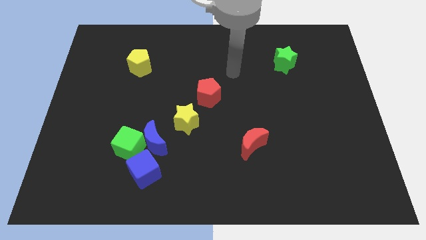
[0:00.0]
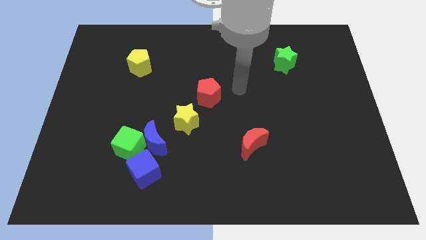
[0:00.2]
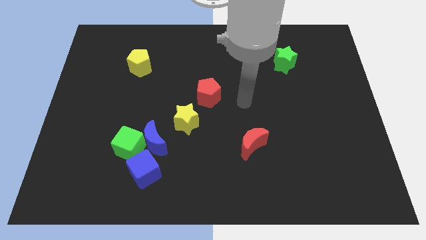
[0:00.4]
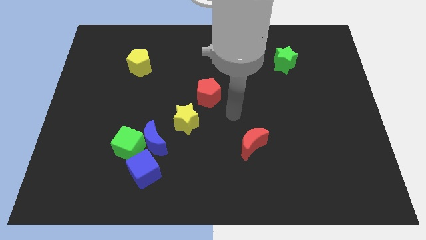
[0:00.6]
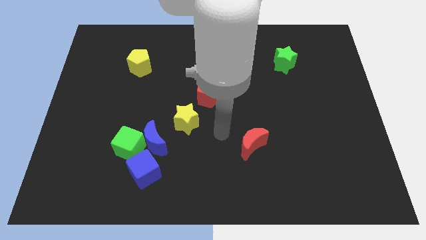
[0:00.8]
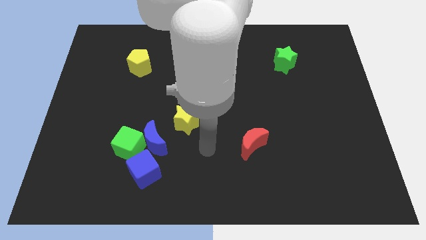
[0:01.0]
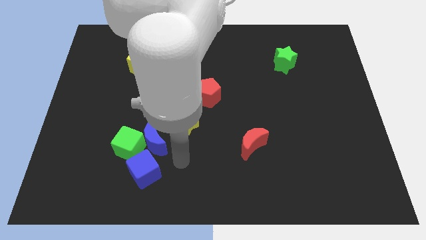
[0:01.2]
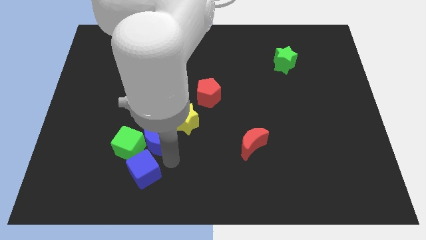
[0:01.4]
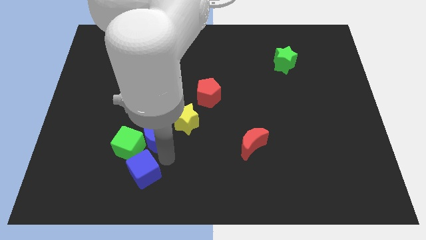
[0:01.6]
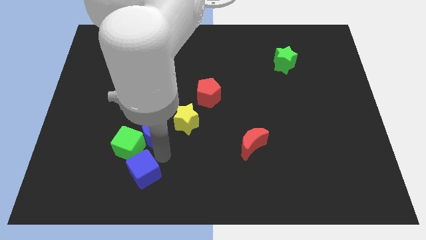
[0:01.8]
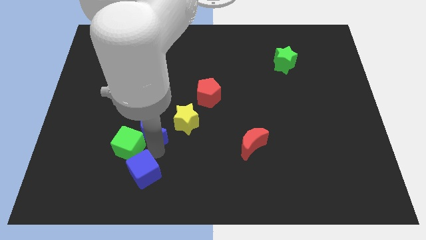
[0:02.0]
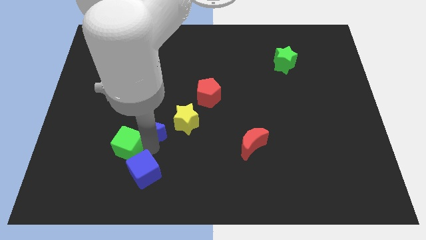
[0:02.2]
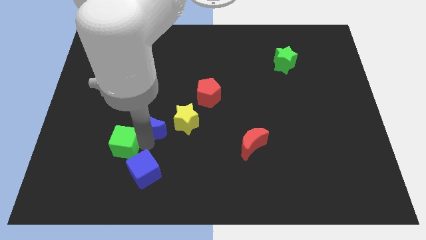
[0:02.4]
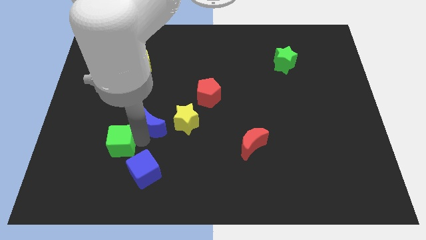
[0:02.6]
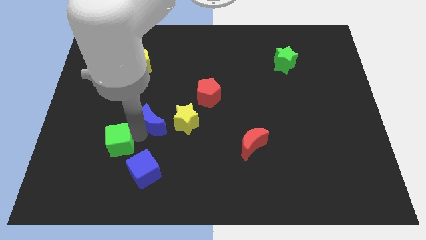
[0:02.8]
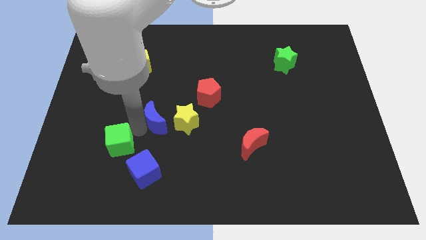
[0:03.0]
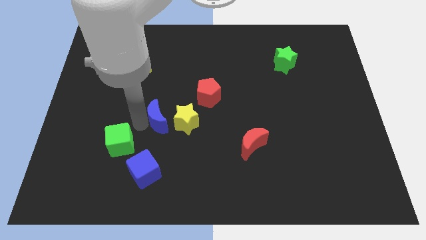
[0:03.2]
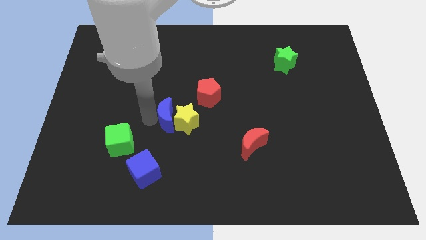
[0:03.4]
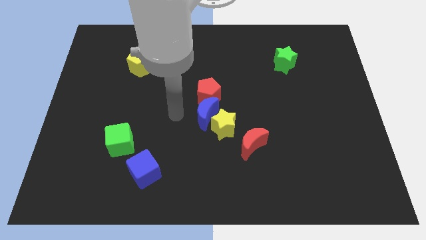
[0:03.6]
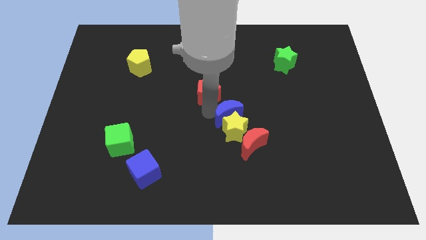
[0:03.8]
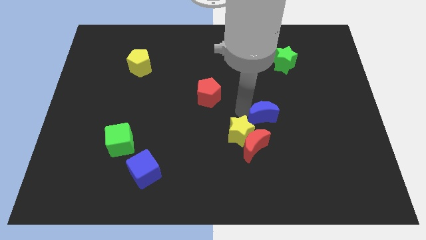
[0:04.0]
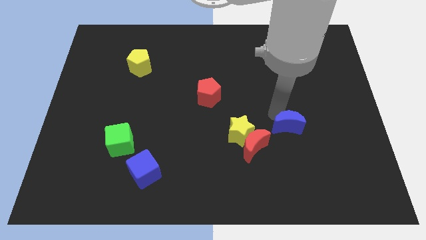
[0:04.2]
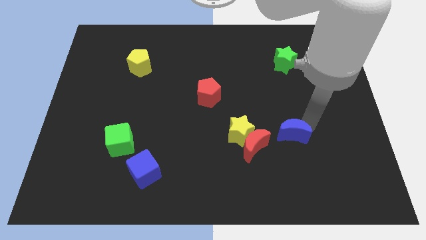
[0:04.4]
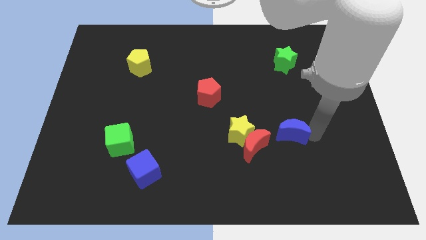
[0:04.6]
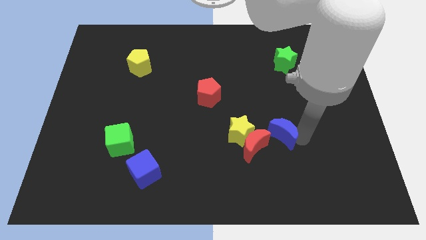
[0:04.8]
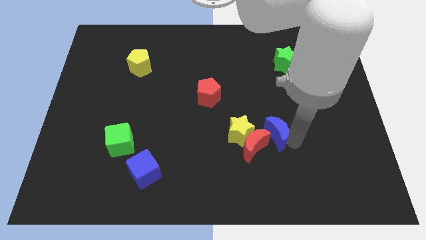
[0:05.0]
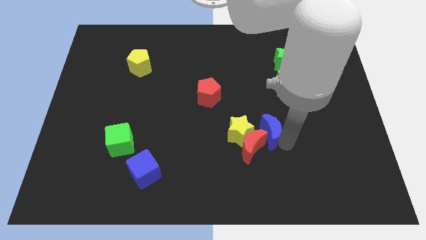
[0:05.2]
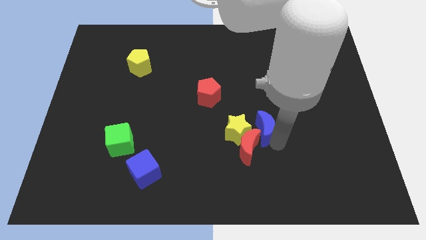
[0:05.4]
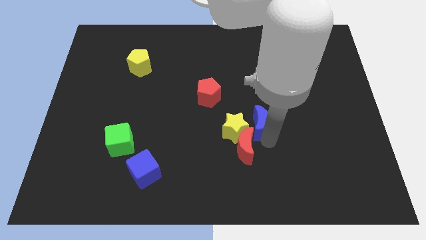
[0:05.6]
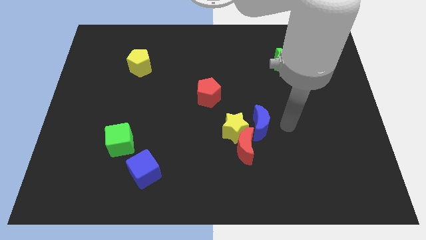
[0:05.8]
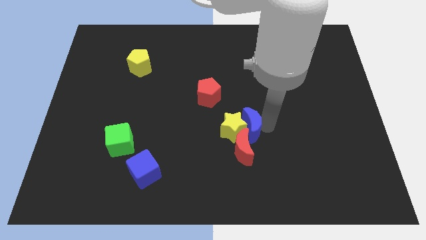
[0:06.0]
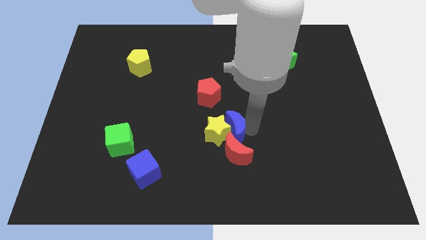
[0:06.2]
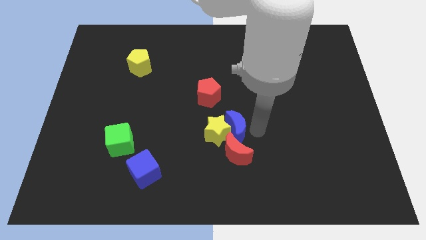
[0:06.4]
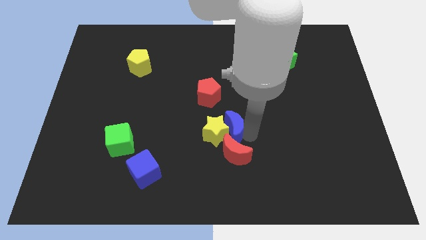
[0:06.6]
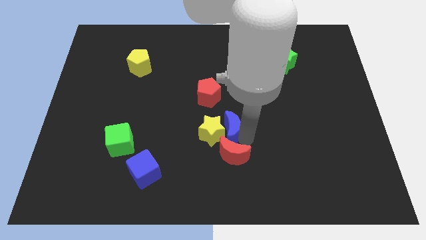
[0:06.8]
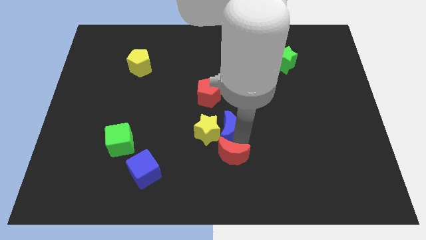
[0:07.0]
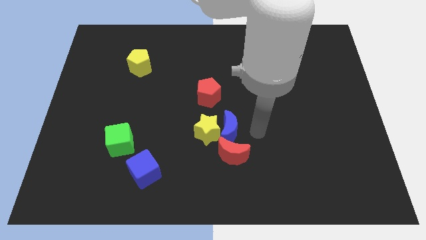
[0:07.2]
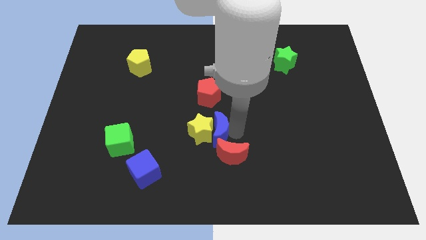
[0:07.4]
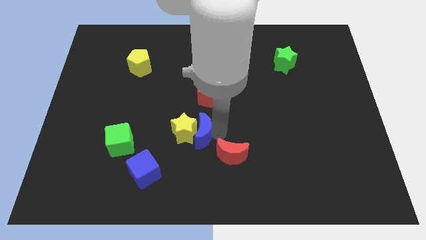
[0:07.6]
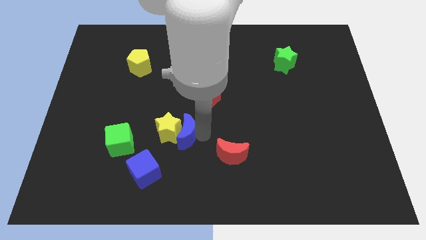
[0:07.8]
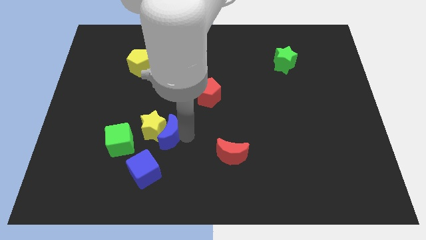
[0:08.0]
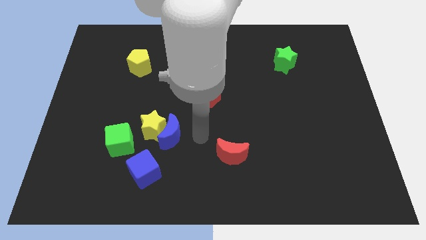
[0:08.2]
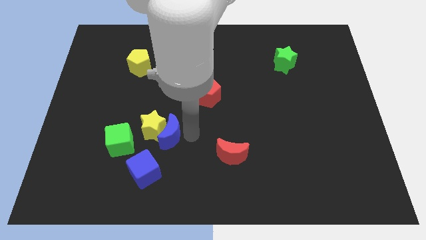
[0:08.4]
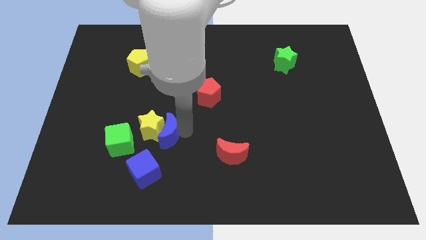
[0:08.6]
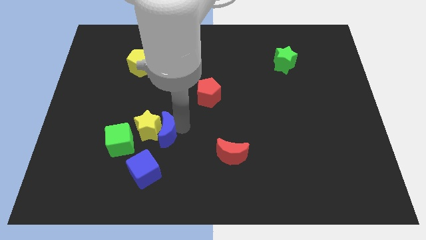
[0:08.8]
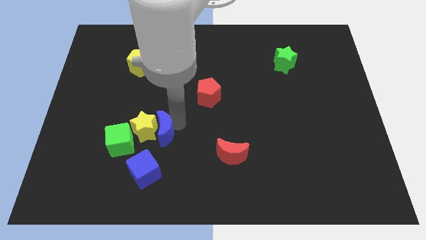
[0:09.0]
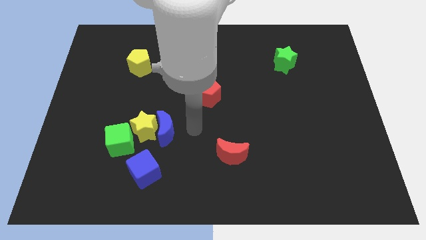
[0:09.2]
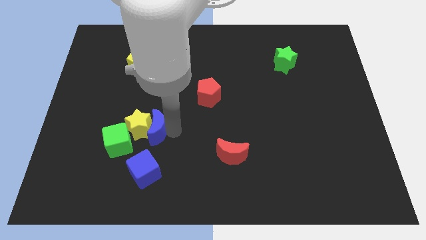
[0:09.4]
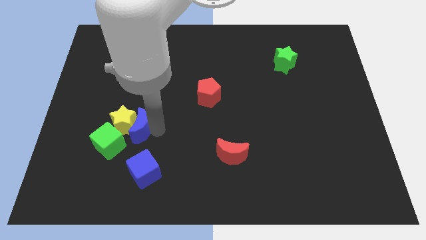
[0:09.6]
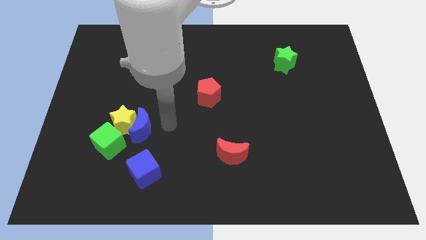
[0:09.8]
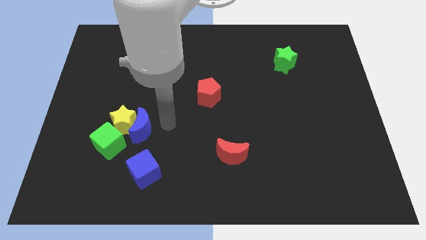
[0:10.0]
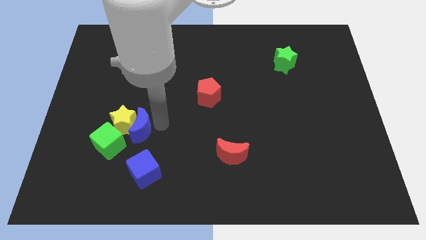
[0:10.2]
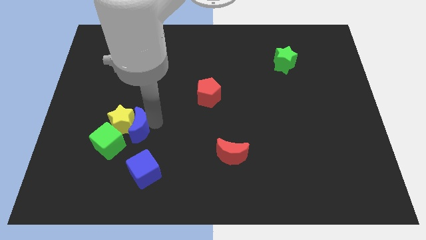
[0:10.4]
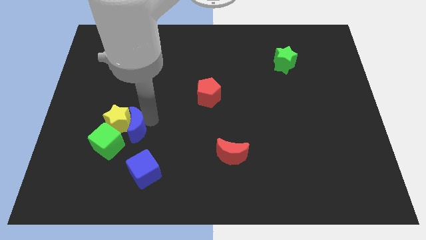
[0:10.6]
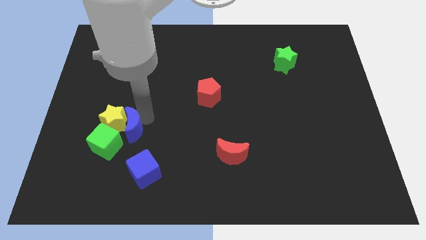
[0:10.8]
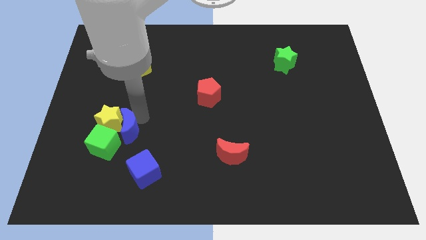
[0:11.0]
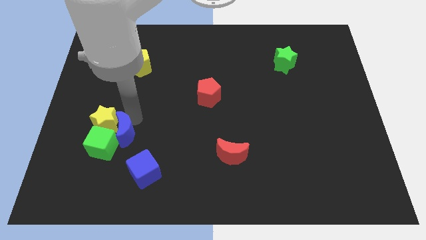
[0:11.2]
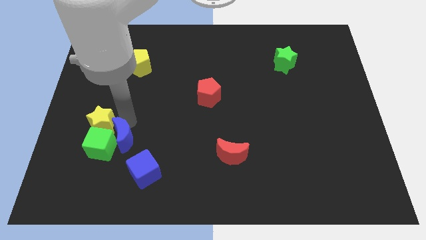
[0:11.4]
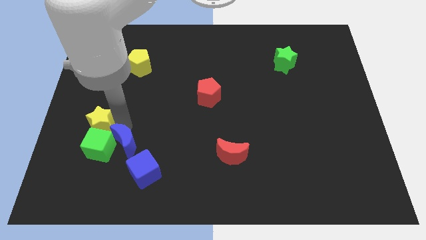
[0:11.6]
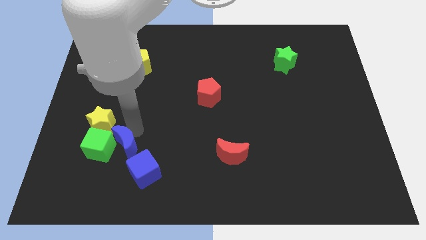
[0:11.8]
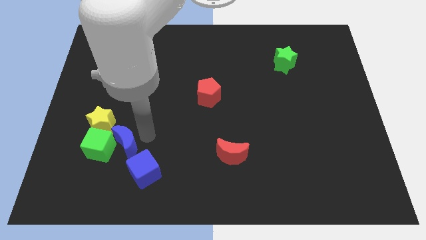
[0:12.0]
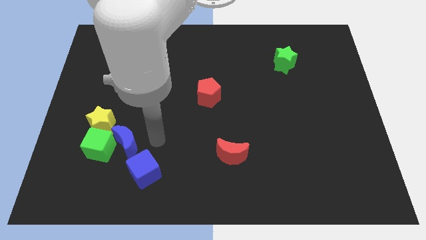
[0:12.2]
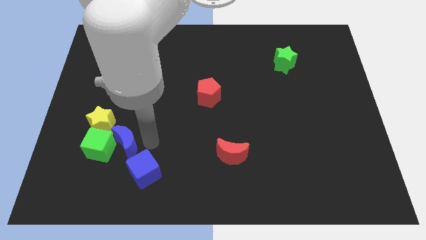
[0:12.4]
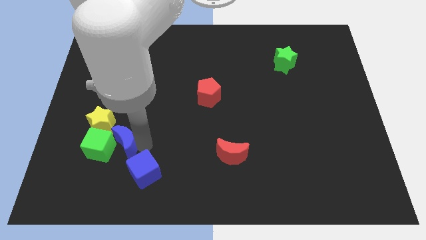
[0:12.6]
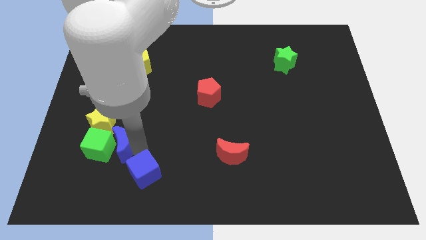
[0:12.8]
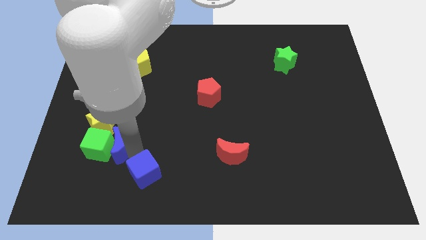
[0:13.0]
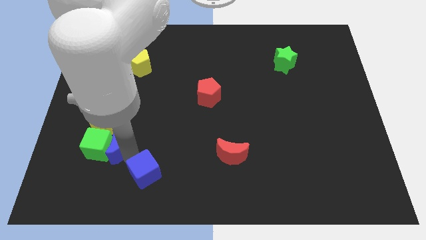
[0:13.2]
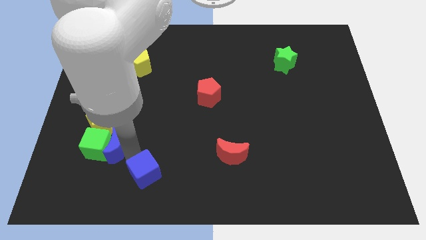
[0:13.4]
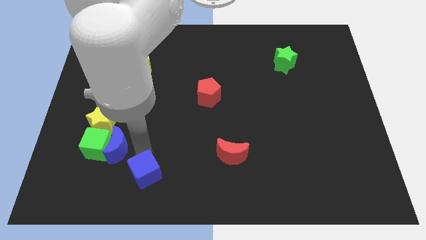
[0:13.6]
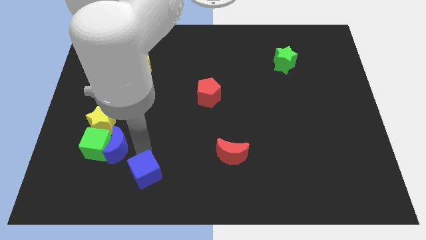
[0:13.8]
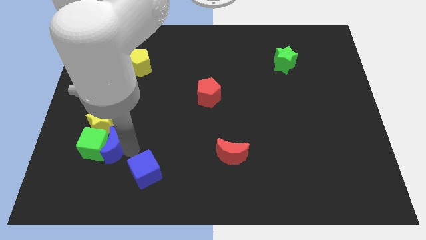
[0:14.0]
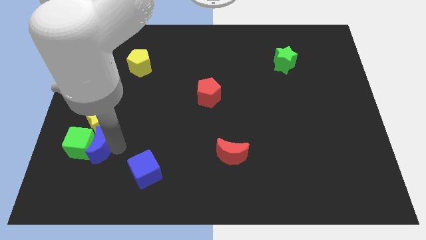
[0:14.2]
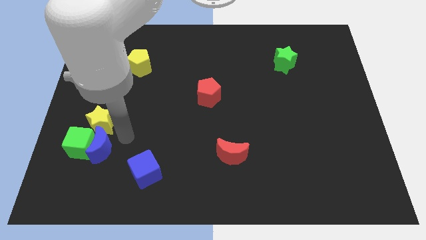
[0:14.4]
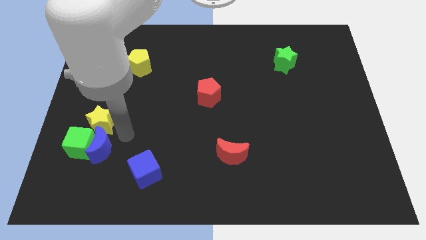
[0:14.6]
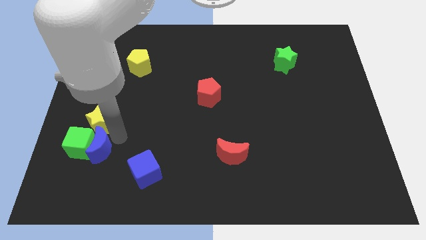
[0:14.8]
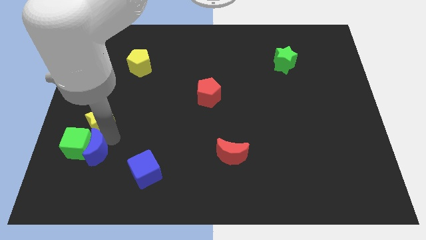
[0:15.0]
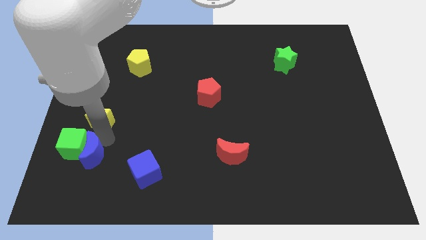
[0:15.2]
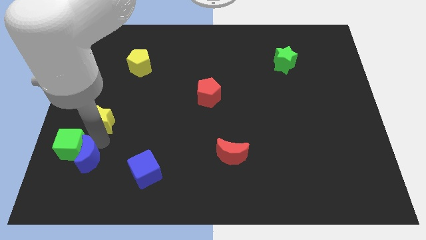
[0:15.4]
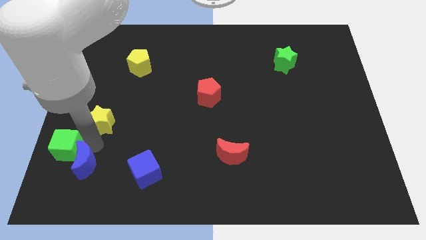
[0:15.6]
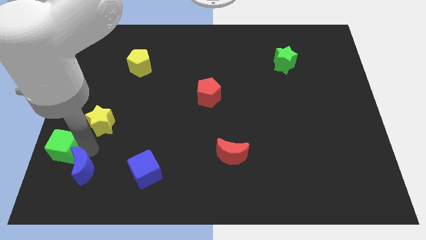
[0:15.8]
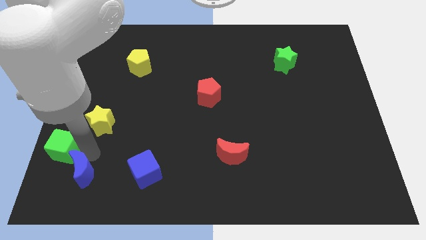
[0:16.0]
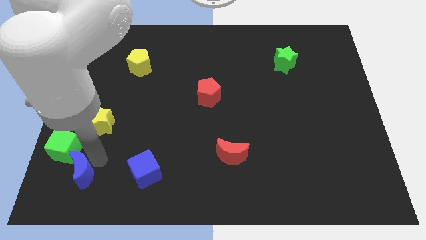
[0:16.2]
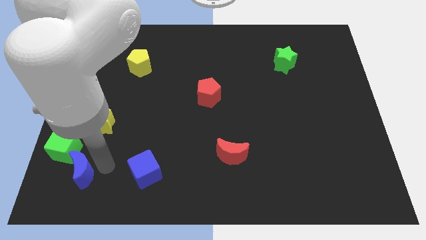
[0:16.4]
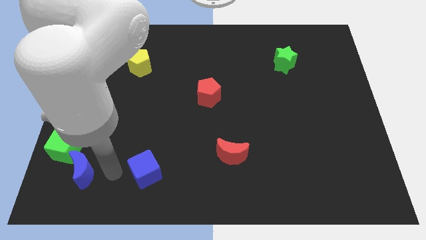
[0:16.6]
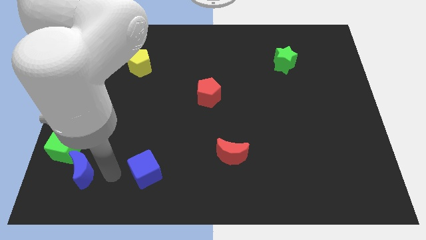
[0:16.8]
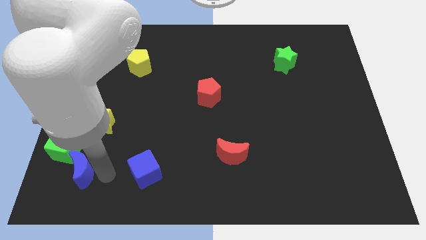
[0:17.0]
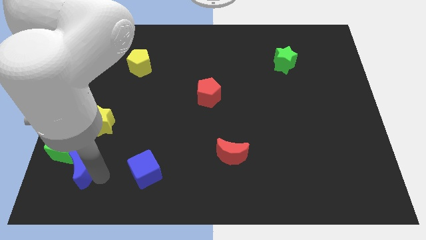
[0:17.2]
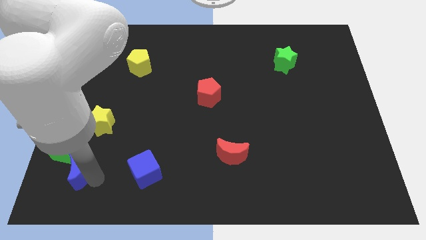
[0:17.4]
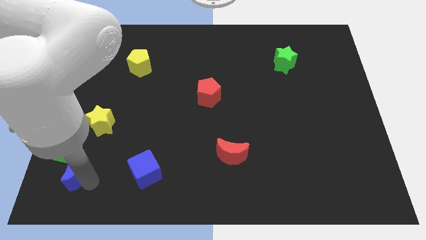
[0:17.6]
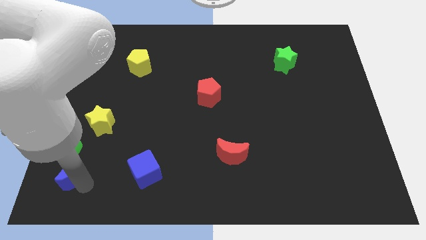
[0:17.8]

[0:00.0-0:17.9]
move the blue moon to the bottom left of the board
